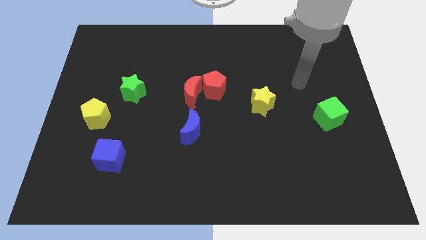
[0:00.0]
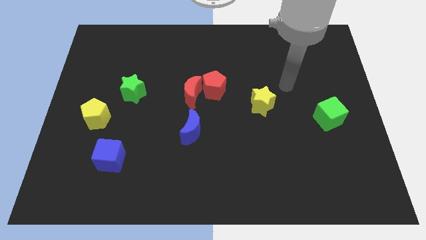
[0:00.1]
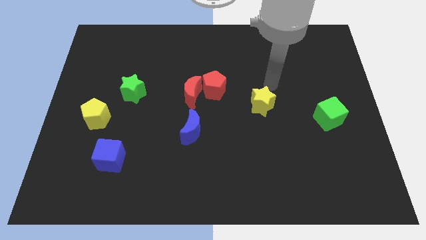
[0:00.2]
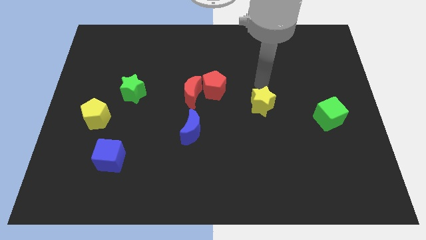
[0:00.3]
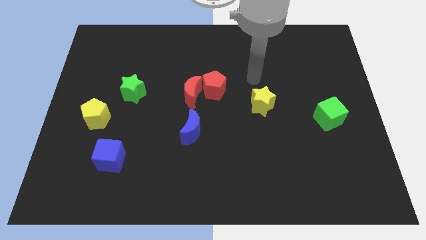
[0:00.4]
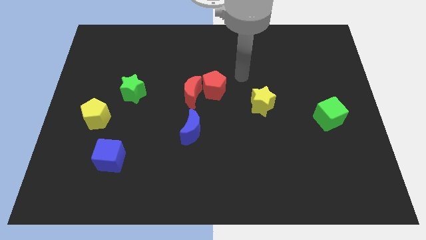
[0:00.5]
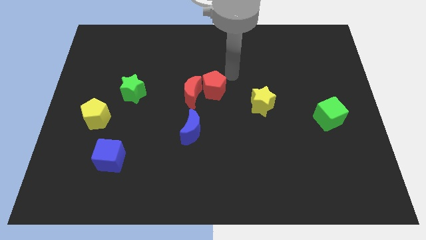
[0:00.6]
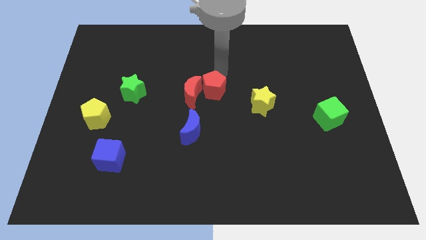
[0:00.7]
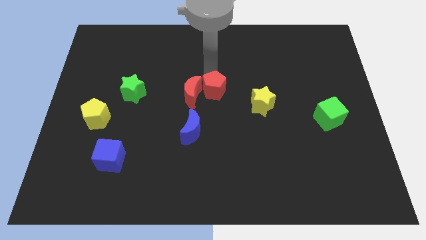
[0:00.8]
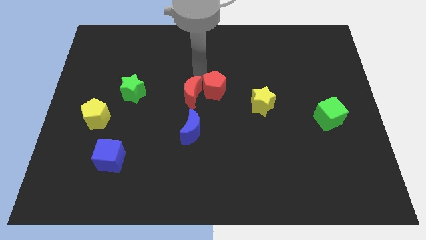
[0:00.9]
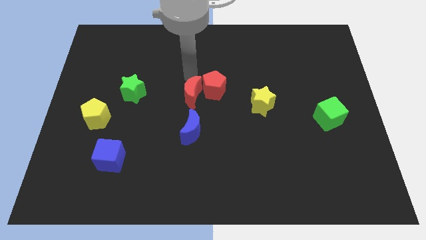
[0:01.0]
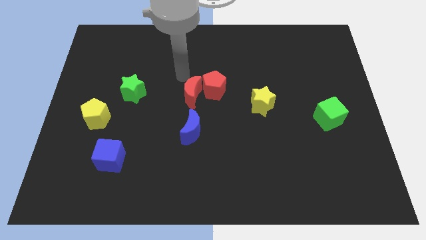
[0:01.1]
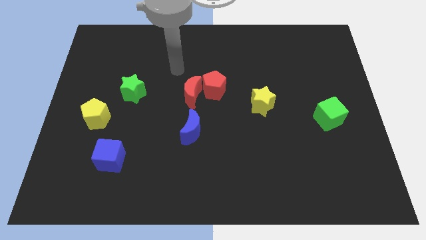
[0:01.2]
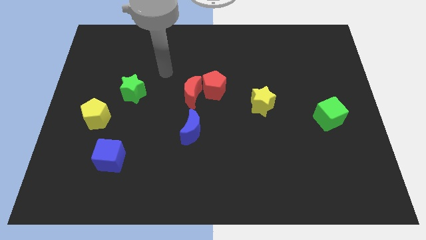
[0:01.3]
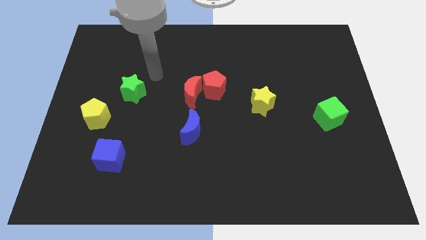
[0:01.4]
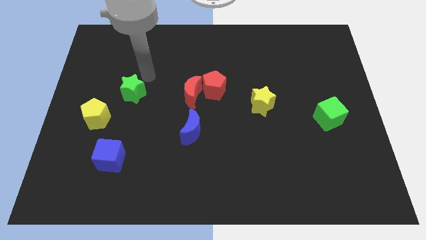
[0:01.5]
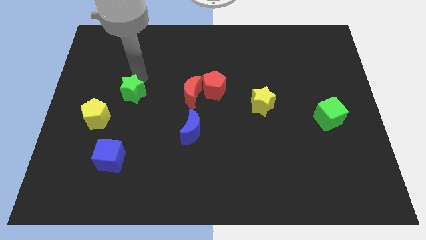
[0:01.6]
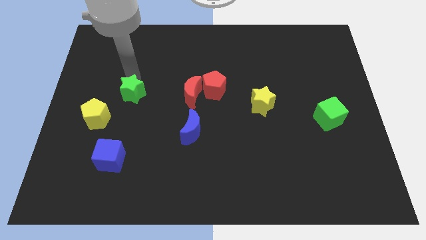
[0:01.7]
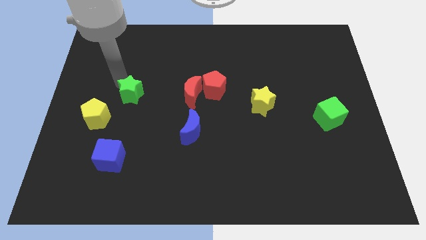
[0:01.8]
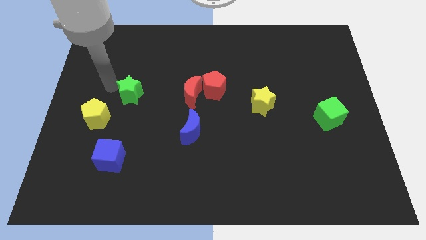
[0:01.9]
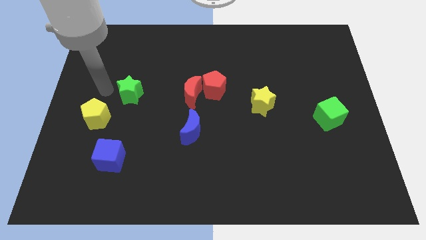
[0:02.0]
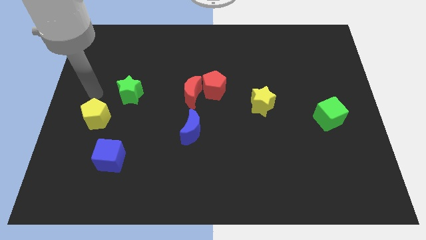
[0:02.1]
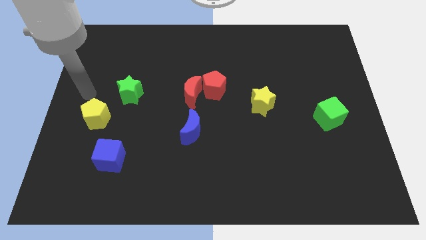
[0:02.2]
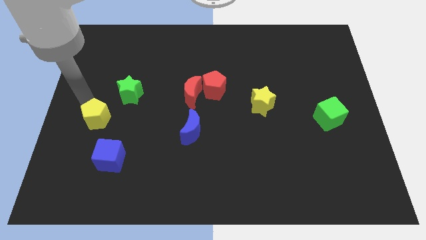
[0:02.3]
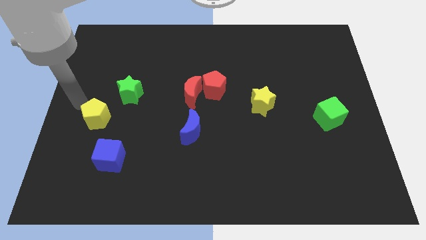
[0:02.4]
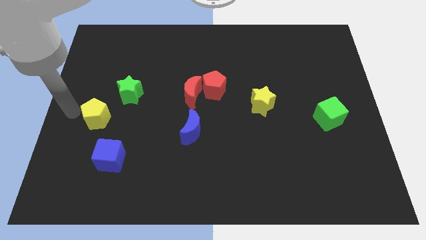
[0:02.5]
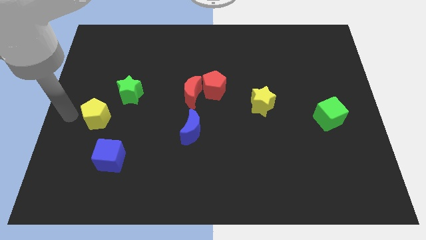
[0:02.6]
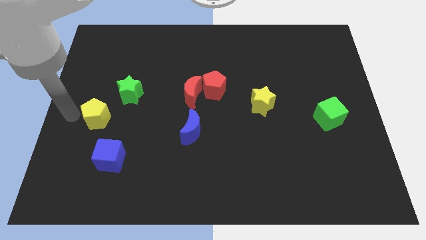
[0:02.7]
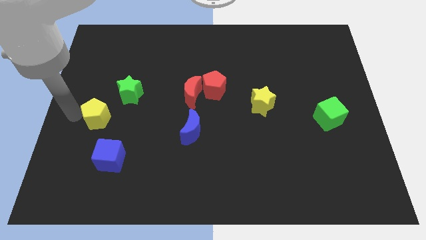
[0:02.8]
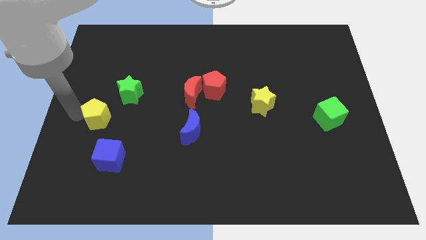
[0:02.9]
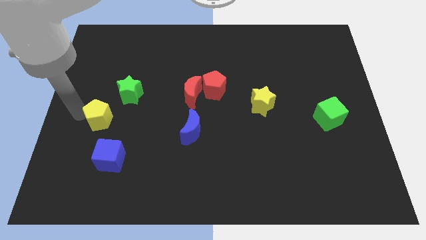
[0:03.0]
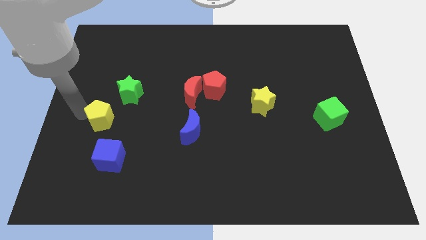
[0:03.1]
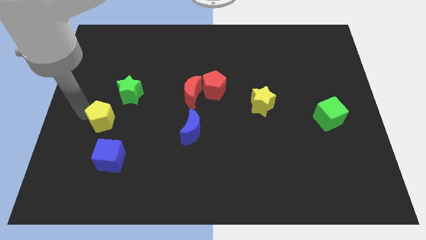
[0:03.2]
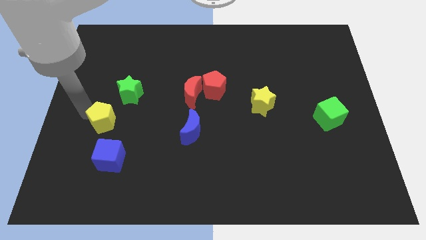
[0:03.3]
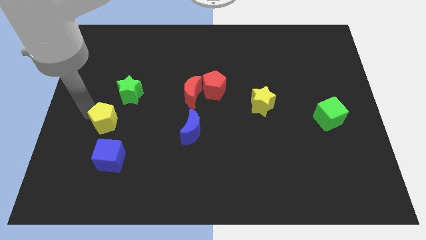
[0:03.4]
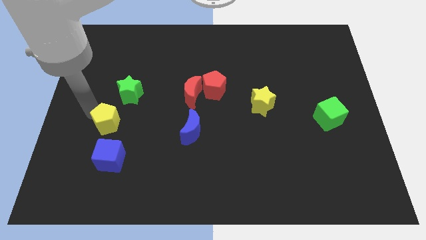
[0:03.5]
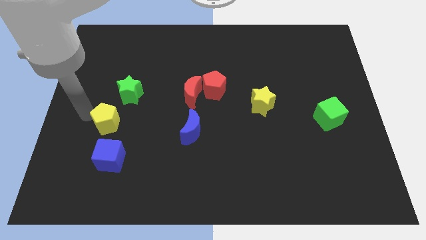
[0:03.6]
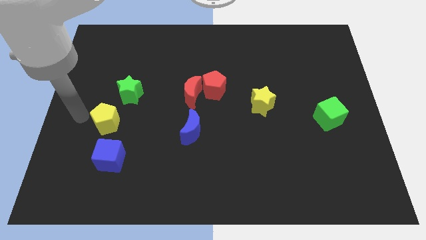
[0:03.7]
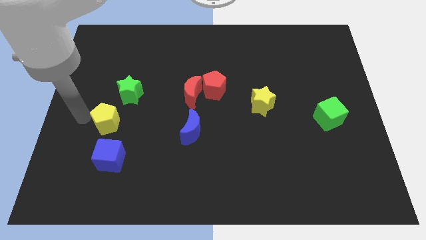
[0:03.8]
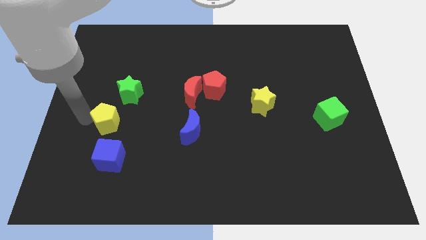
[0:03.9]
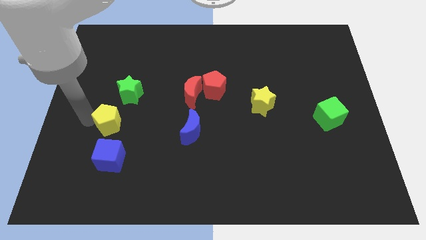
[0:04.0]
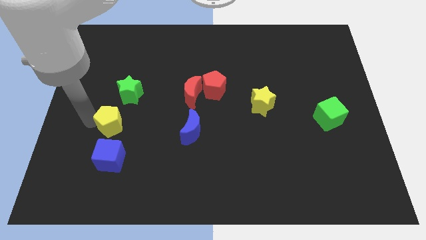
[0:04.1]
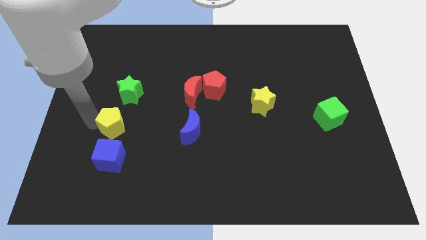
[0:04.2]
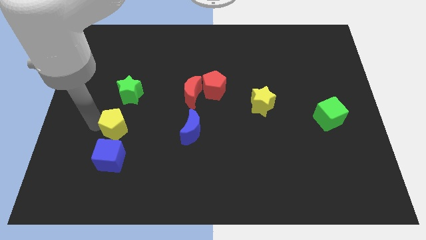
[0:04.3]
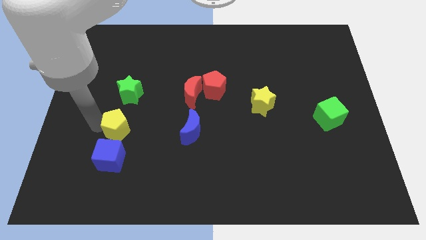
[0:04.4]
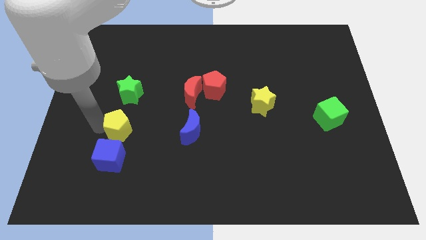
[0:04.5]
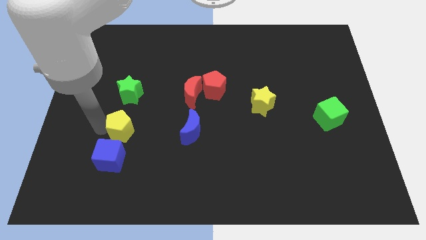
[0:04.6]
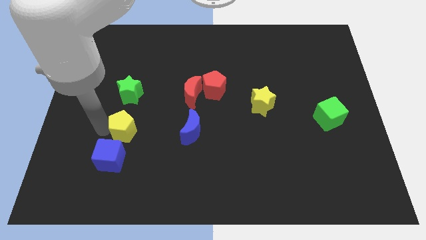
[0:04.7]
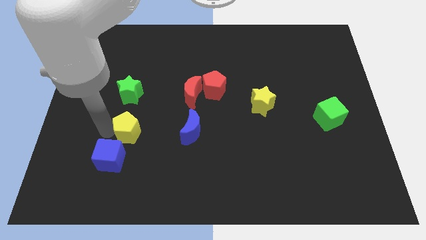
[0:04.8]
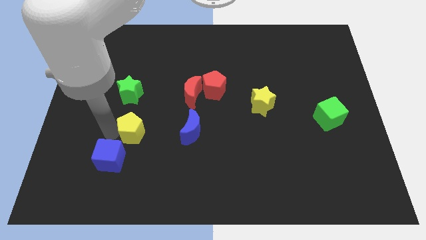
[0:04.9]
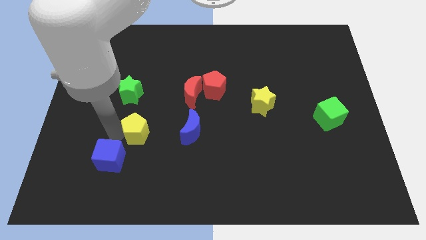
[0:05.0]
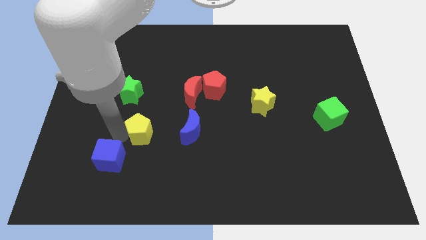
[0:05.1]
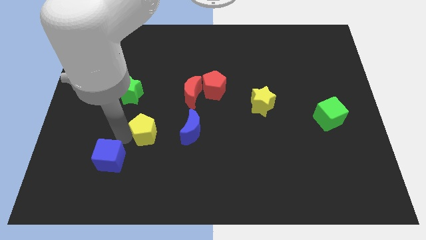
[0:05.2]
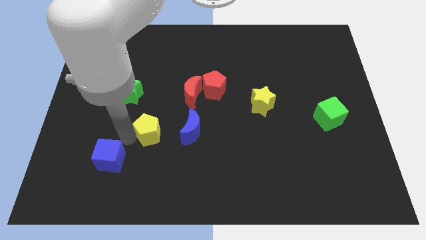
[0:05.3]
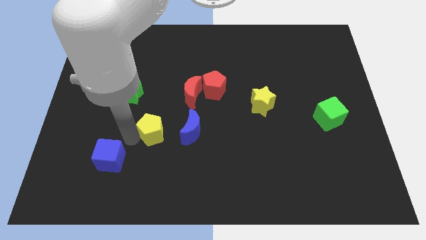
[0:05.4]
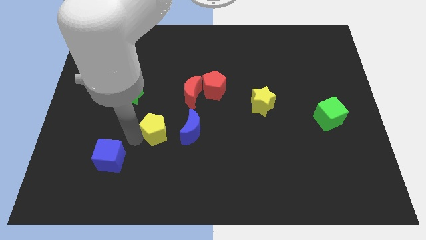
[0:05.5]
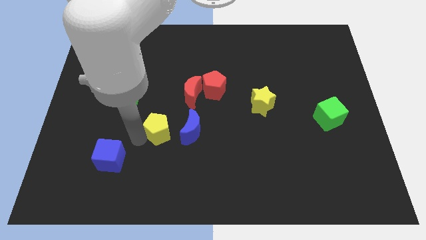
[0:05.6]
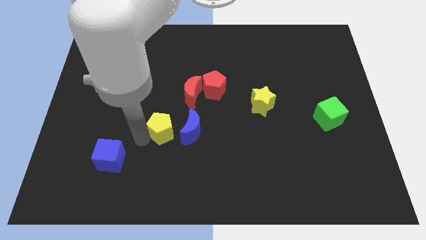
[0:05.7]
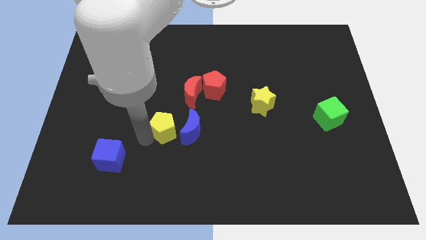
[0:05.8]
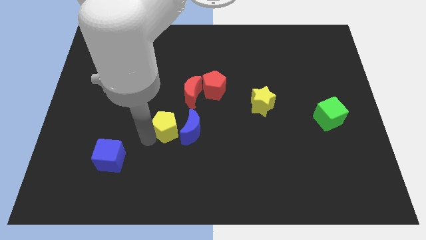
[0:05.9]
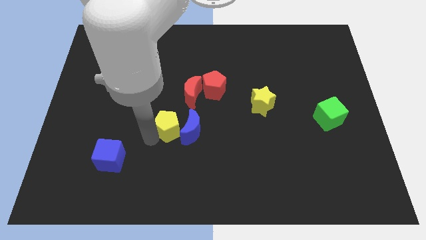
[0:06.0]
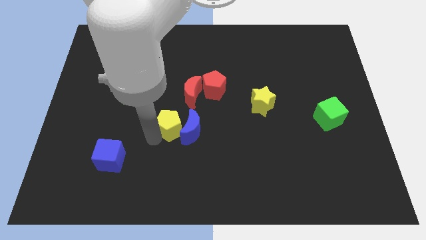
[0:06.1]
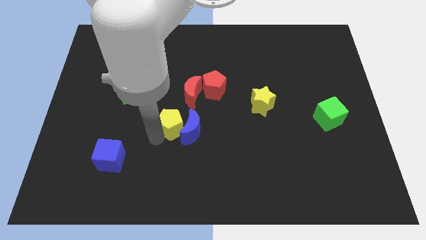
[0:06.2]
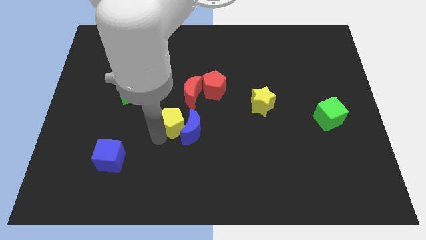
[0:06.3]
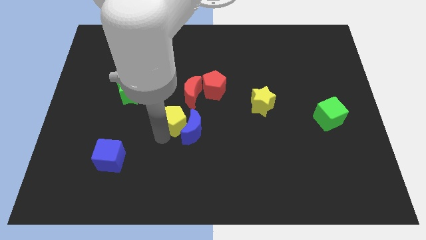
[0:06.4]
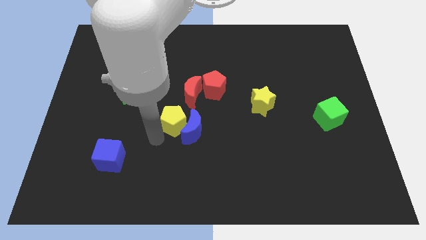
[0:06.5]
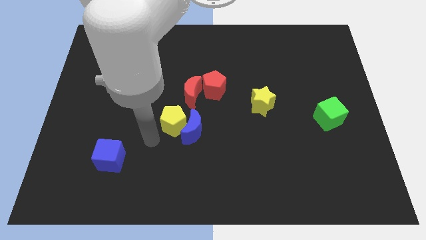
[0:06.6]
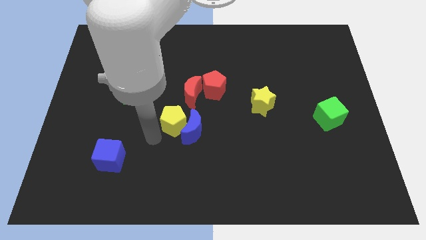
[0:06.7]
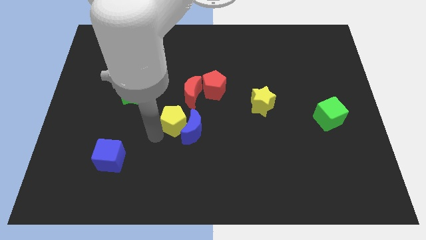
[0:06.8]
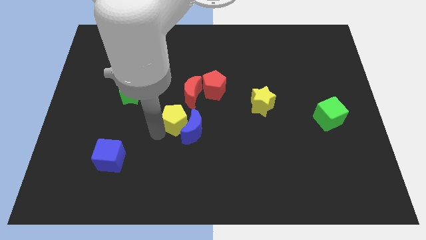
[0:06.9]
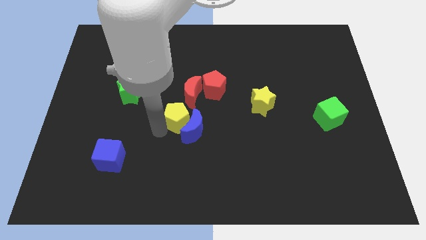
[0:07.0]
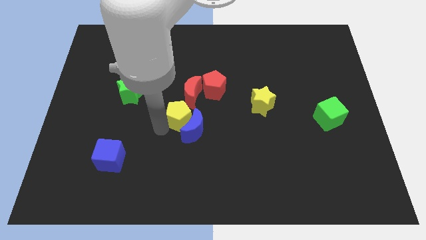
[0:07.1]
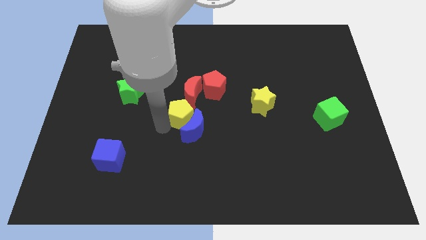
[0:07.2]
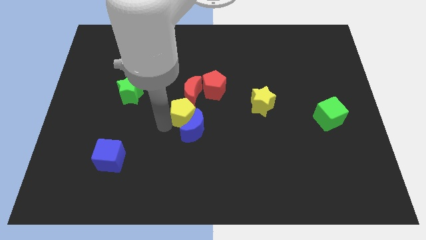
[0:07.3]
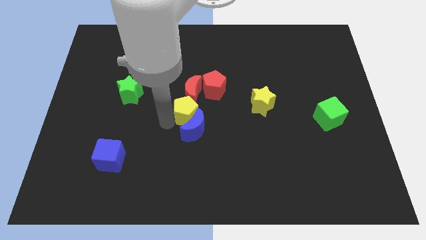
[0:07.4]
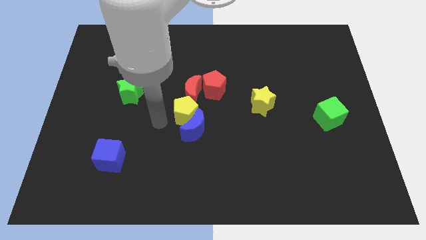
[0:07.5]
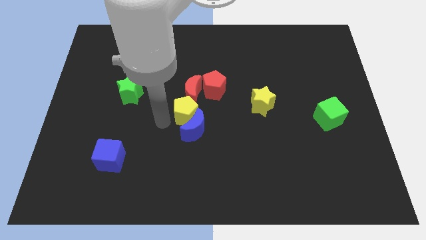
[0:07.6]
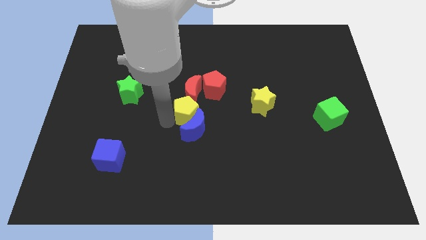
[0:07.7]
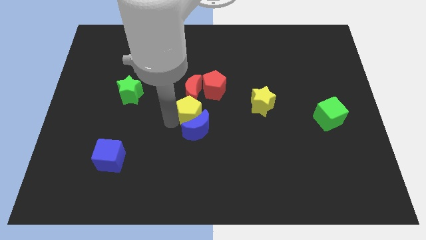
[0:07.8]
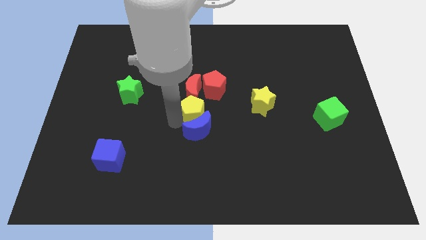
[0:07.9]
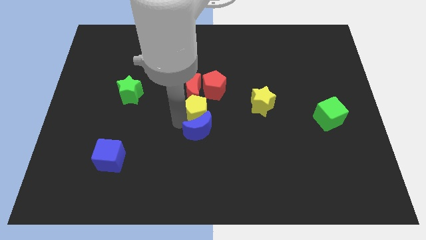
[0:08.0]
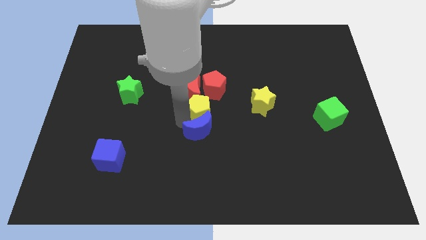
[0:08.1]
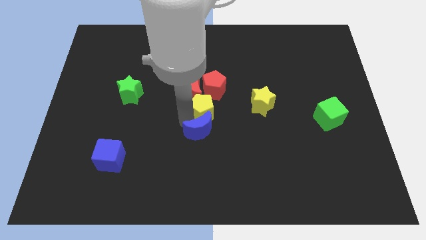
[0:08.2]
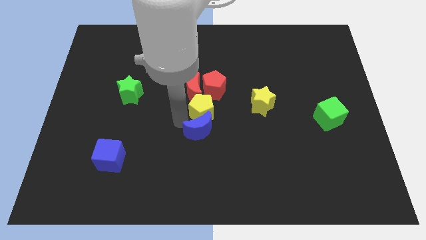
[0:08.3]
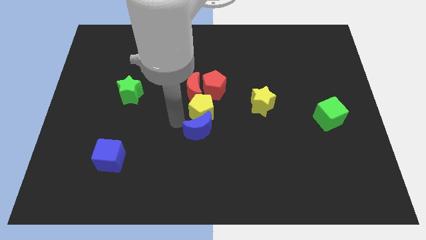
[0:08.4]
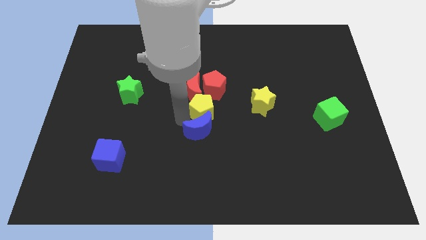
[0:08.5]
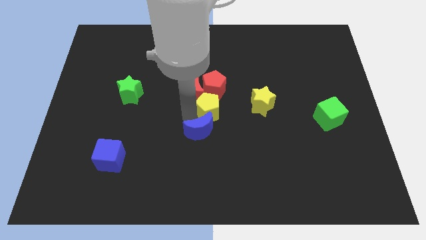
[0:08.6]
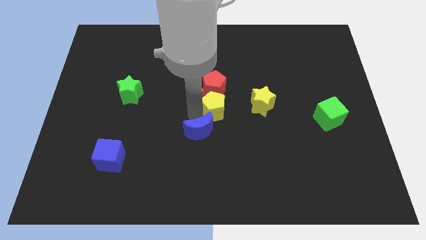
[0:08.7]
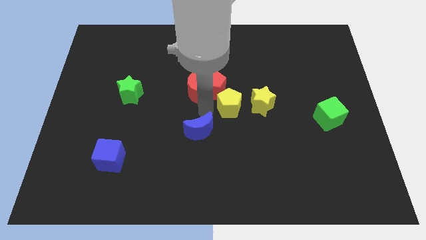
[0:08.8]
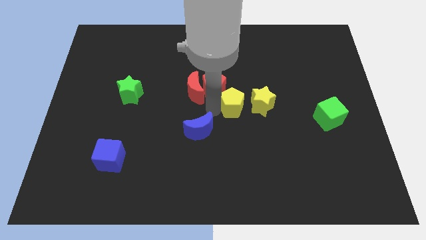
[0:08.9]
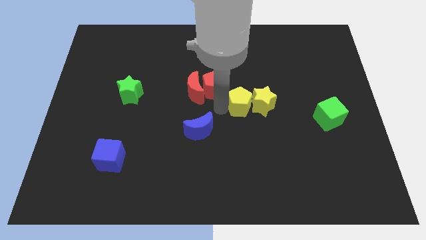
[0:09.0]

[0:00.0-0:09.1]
push the yellow pentagon close to the yellow star
